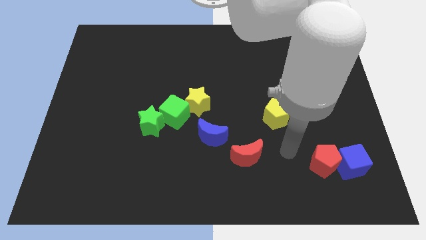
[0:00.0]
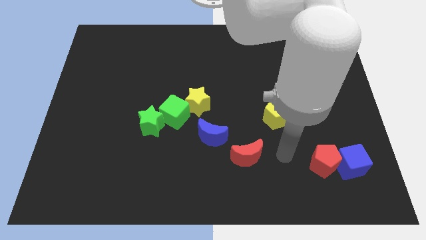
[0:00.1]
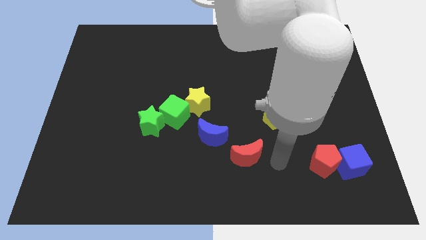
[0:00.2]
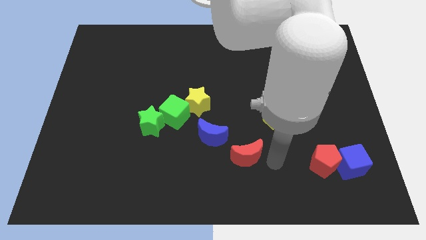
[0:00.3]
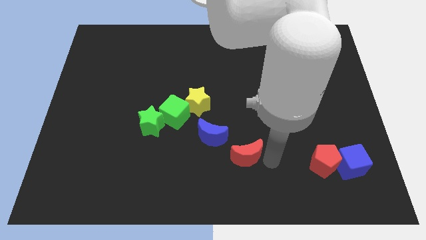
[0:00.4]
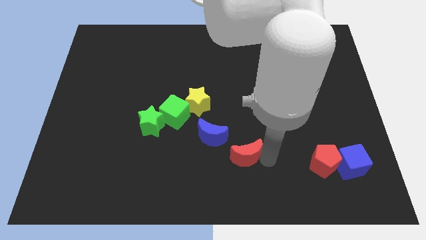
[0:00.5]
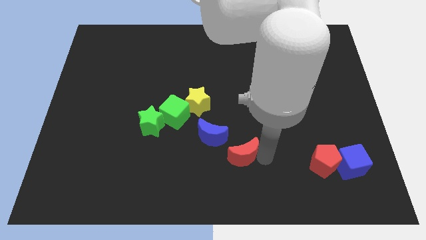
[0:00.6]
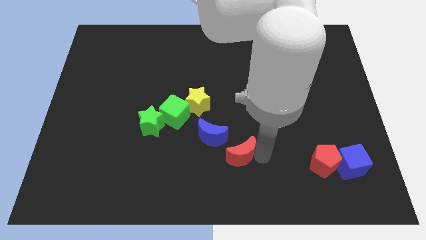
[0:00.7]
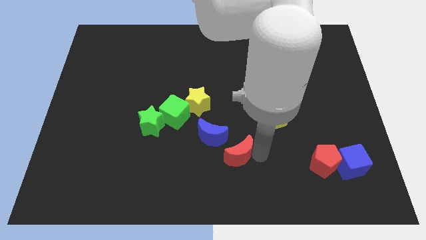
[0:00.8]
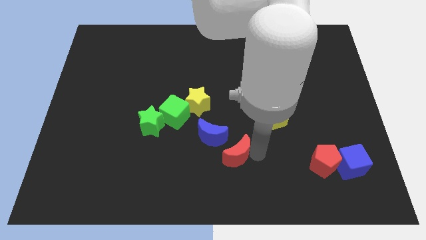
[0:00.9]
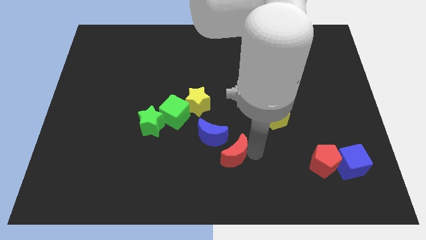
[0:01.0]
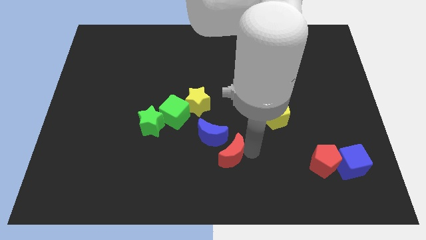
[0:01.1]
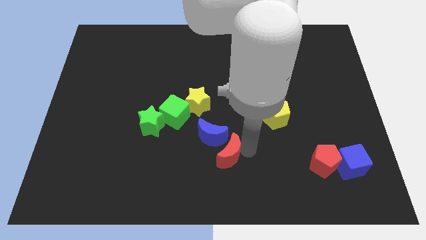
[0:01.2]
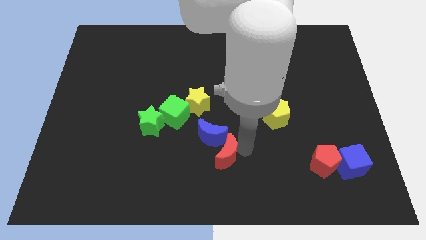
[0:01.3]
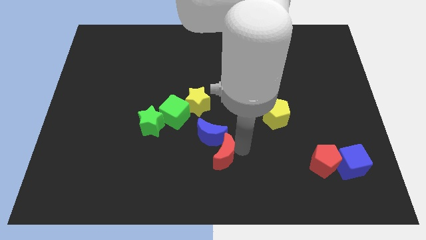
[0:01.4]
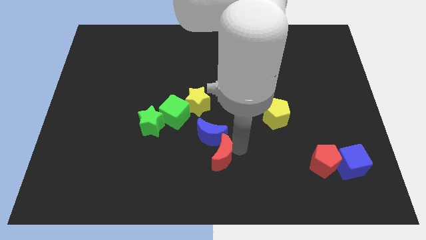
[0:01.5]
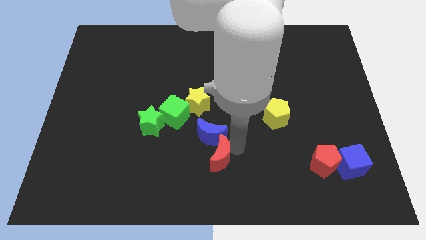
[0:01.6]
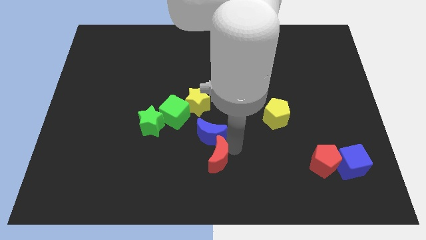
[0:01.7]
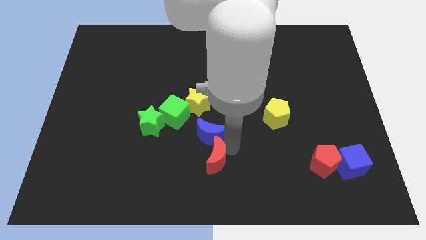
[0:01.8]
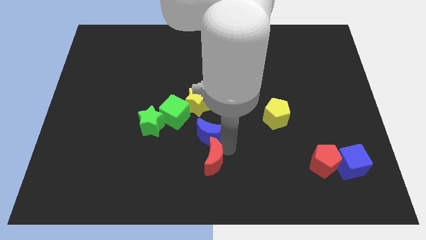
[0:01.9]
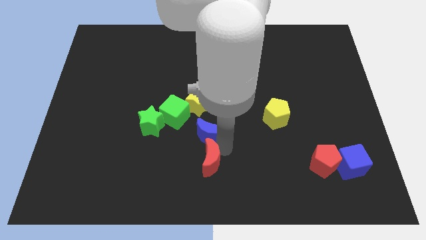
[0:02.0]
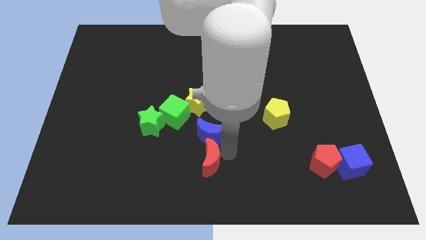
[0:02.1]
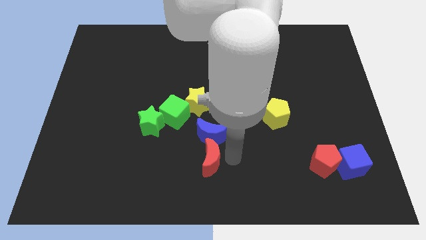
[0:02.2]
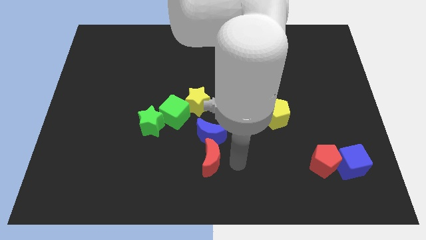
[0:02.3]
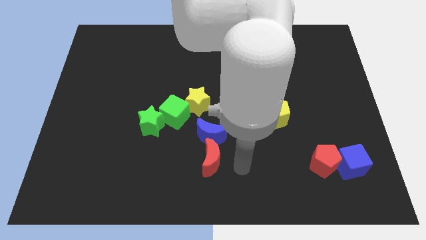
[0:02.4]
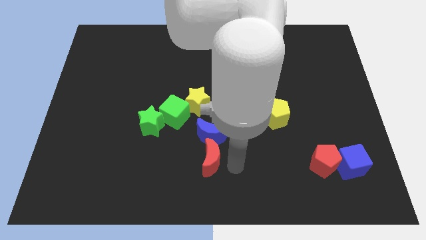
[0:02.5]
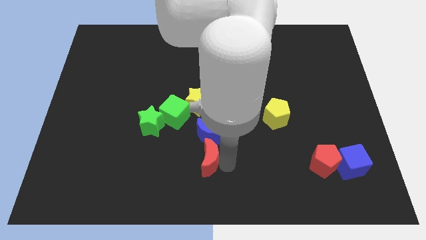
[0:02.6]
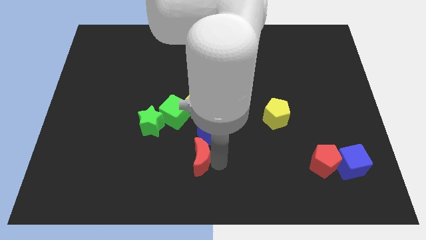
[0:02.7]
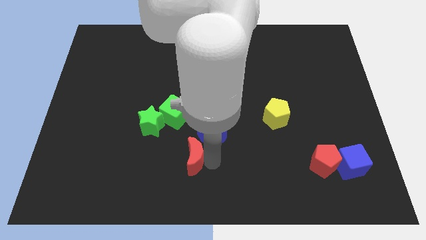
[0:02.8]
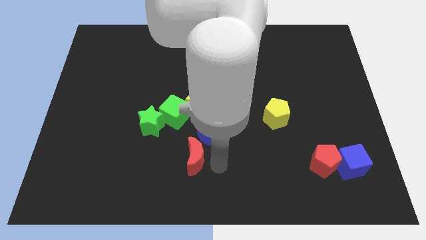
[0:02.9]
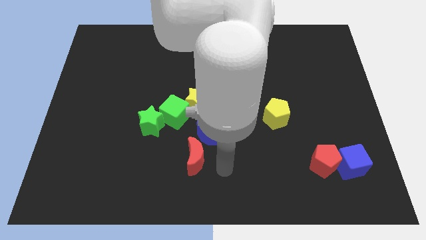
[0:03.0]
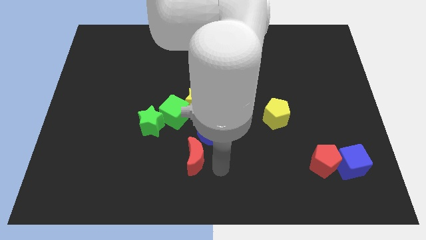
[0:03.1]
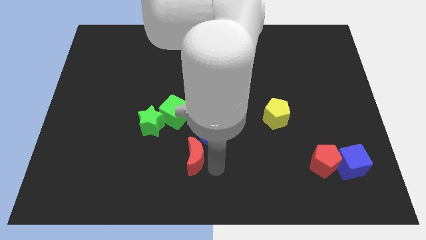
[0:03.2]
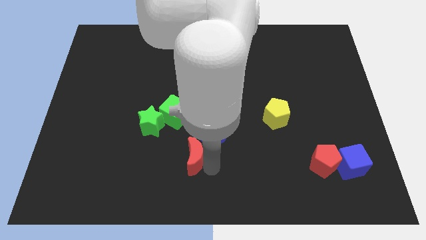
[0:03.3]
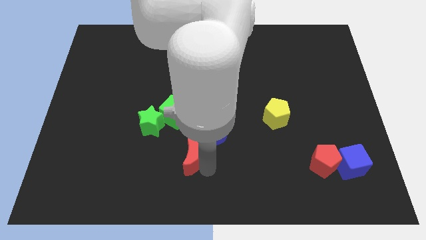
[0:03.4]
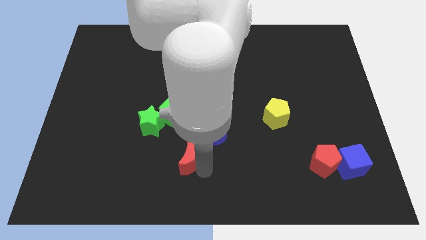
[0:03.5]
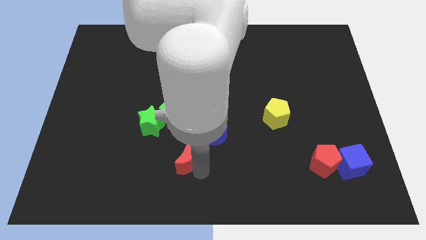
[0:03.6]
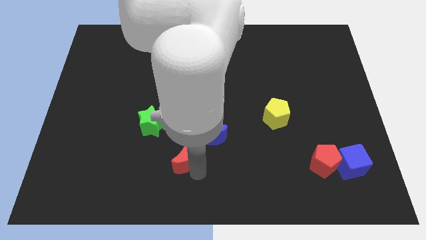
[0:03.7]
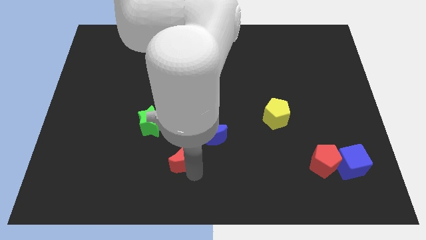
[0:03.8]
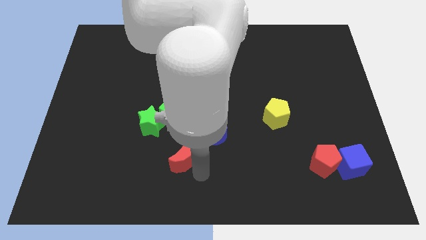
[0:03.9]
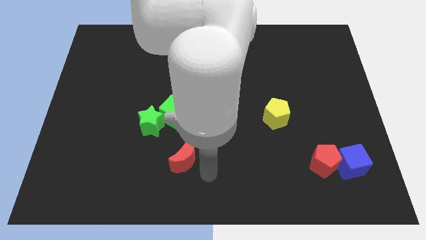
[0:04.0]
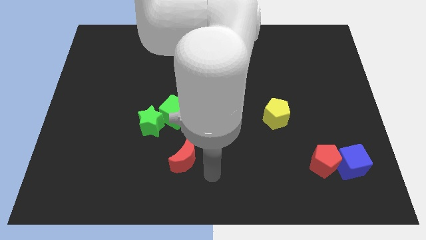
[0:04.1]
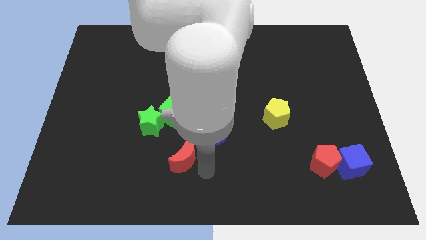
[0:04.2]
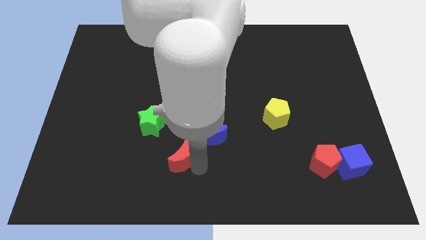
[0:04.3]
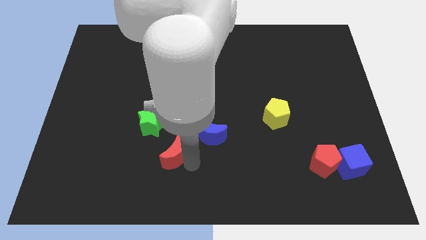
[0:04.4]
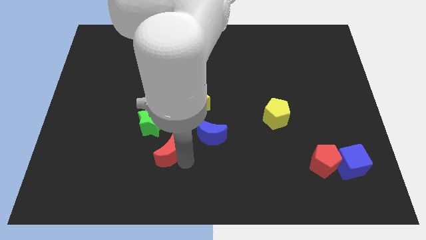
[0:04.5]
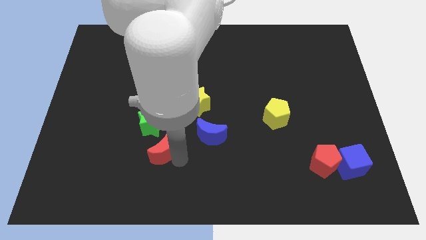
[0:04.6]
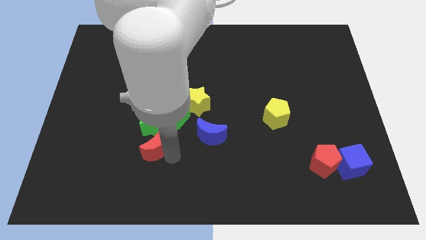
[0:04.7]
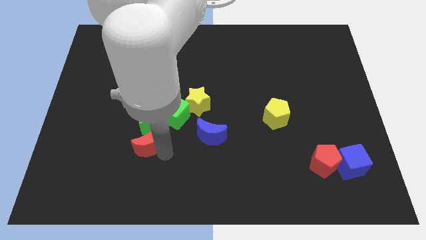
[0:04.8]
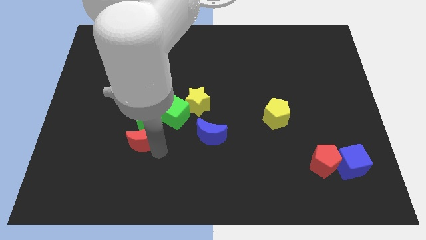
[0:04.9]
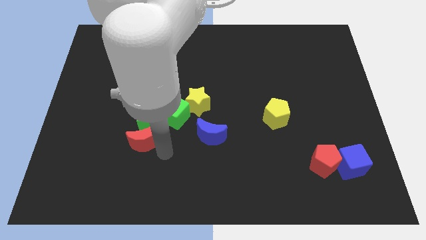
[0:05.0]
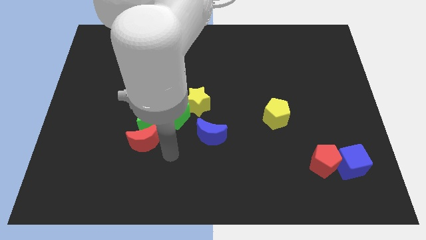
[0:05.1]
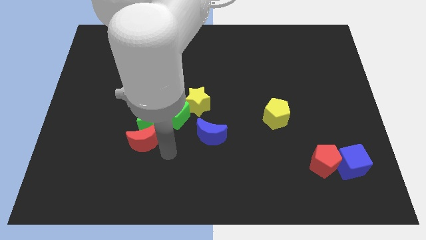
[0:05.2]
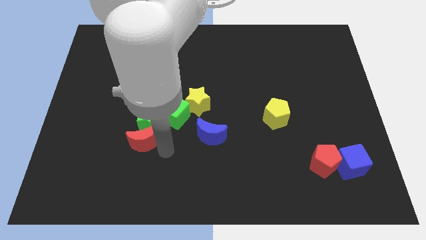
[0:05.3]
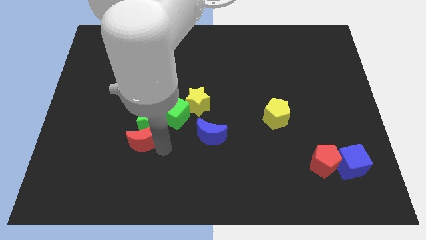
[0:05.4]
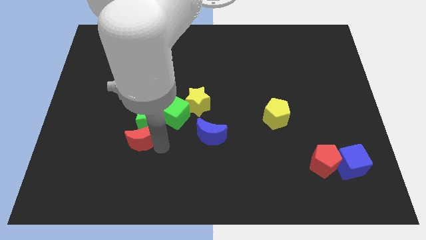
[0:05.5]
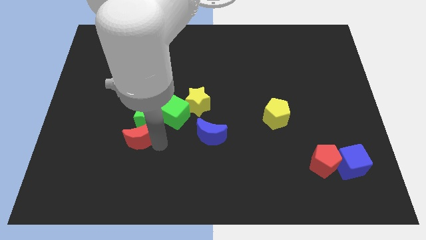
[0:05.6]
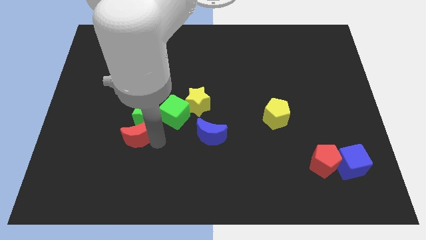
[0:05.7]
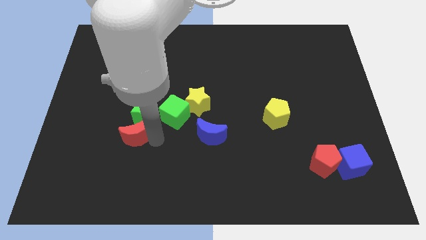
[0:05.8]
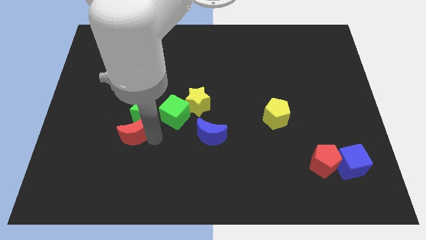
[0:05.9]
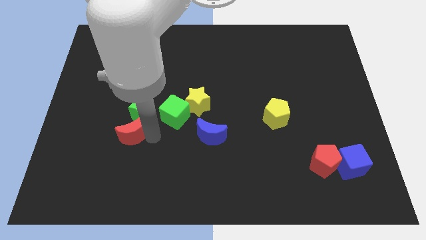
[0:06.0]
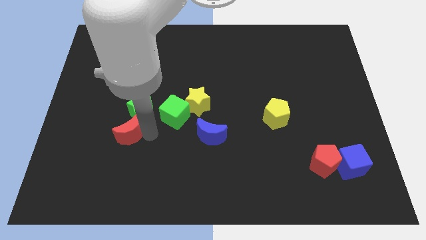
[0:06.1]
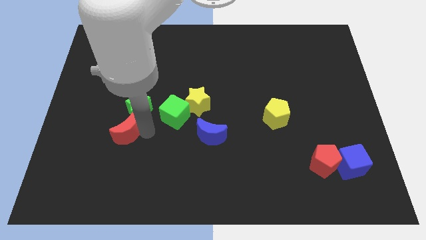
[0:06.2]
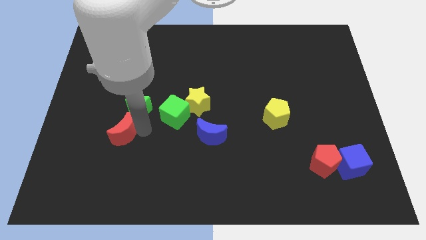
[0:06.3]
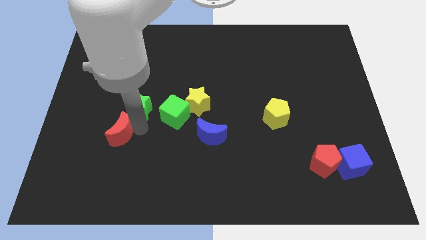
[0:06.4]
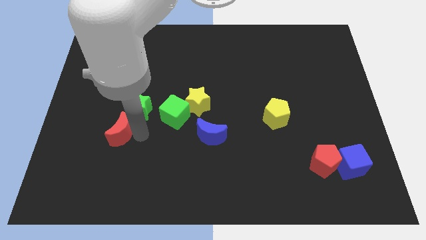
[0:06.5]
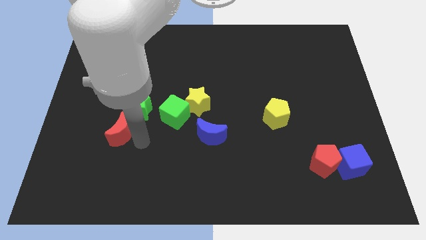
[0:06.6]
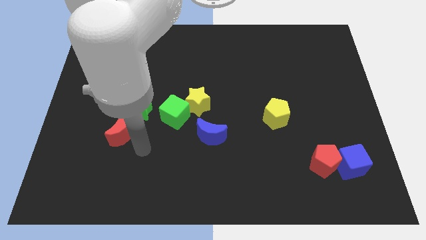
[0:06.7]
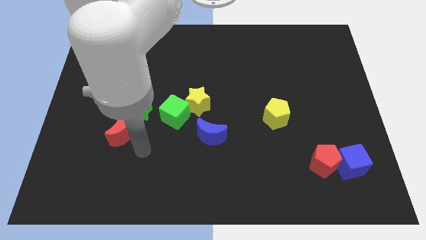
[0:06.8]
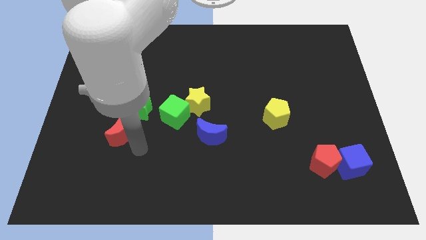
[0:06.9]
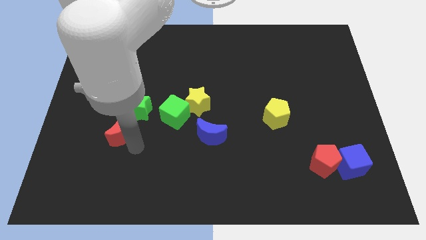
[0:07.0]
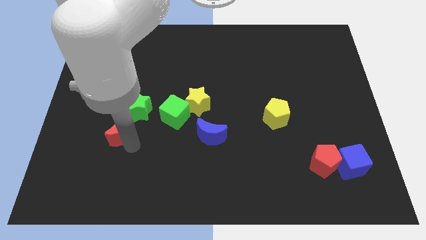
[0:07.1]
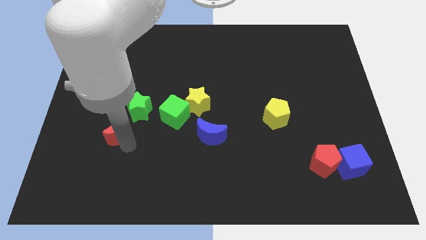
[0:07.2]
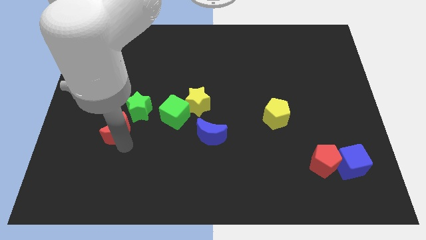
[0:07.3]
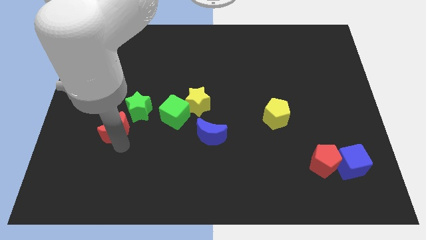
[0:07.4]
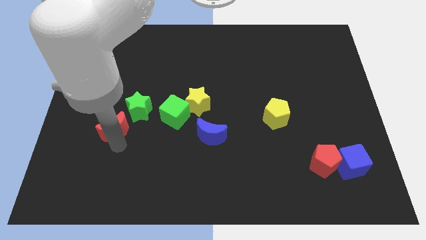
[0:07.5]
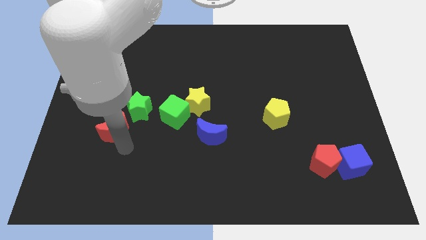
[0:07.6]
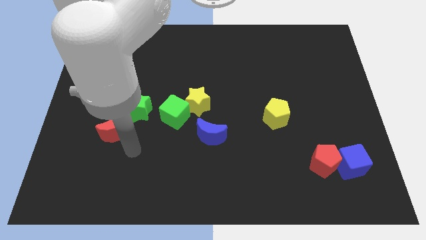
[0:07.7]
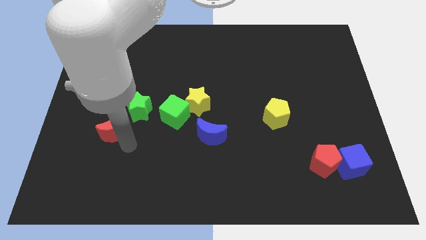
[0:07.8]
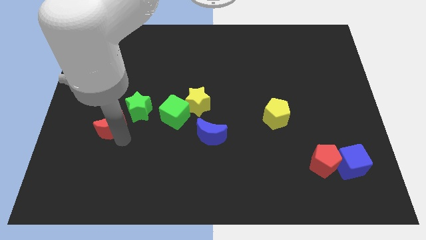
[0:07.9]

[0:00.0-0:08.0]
move the red moon to the left side of the green star
